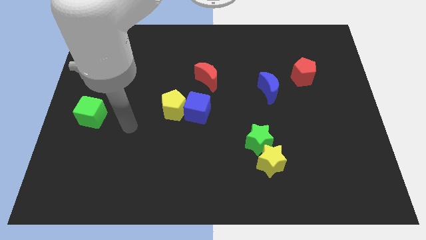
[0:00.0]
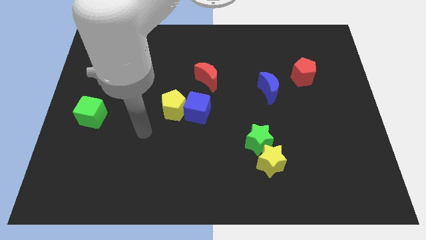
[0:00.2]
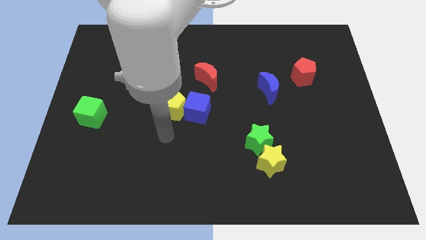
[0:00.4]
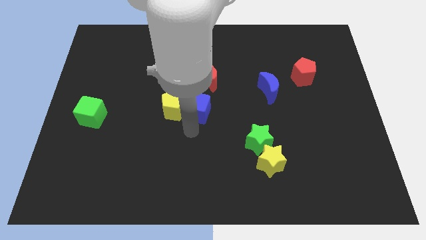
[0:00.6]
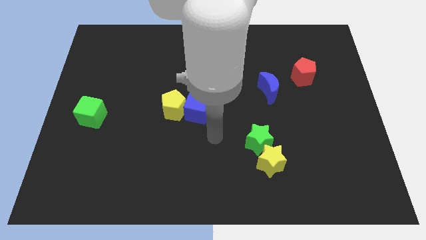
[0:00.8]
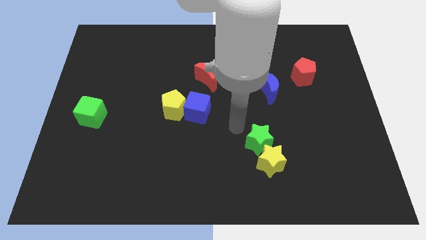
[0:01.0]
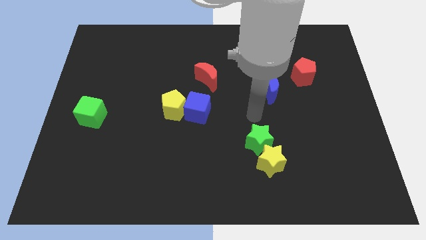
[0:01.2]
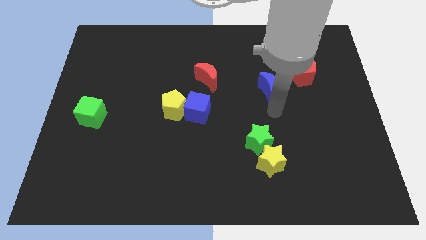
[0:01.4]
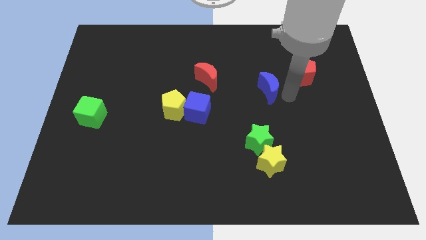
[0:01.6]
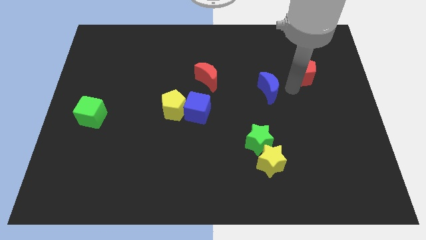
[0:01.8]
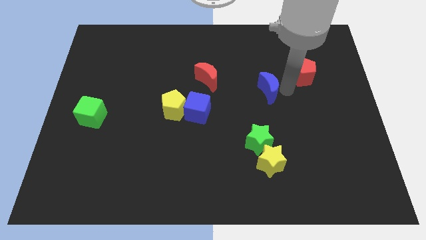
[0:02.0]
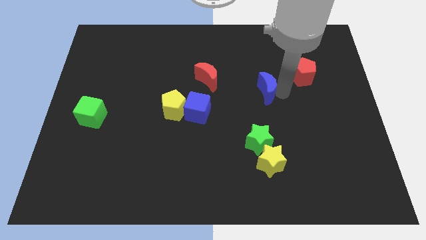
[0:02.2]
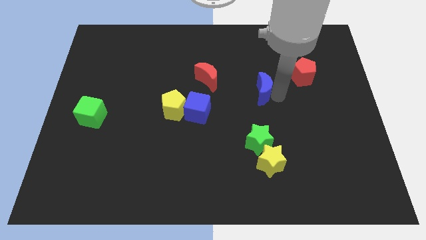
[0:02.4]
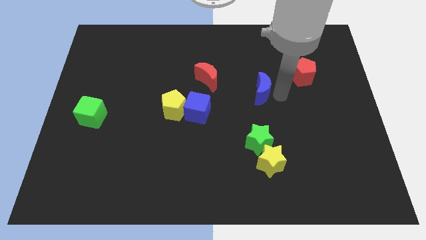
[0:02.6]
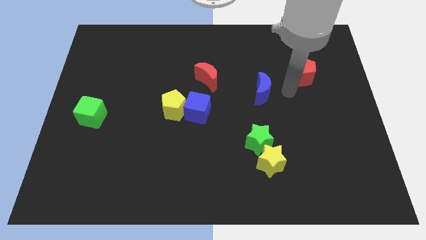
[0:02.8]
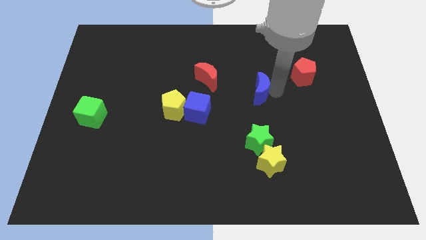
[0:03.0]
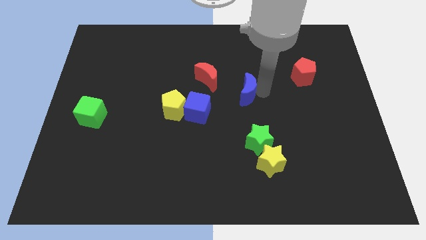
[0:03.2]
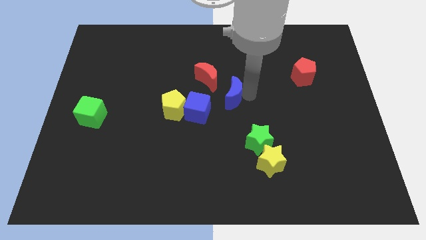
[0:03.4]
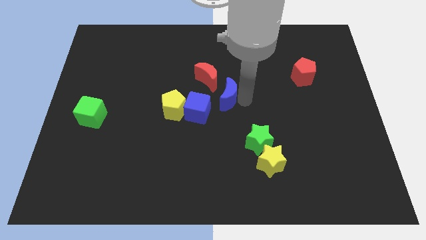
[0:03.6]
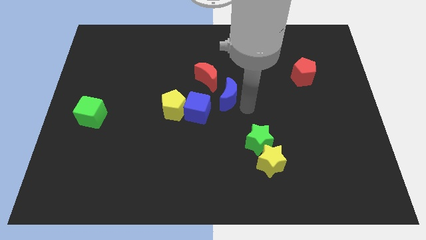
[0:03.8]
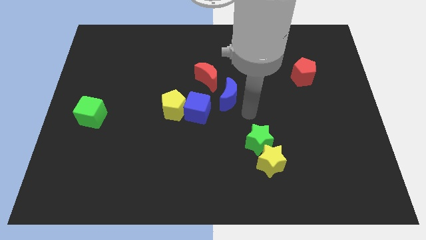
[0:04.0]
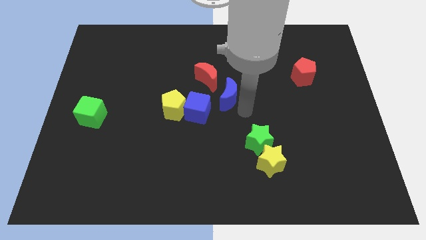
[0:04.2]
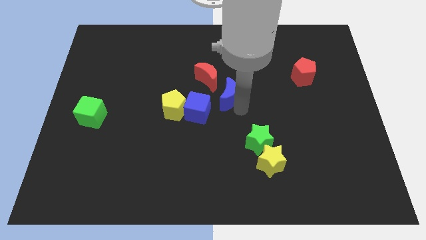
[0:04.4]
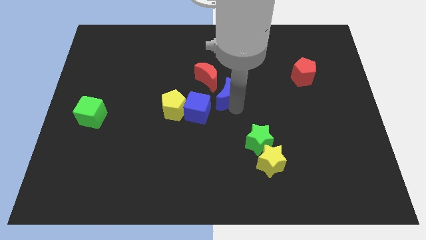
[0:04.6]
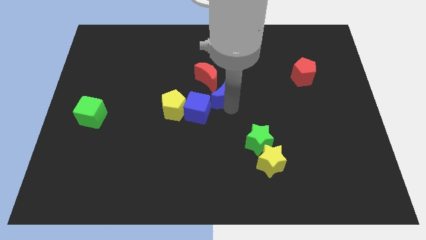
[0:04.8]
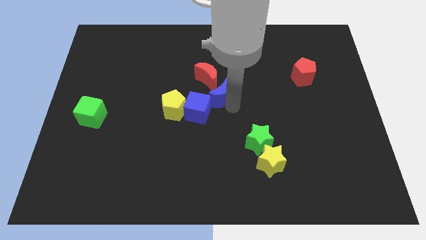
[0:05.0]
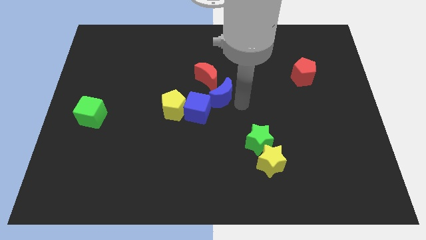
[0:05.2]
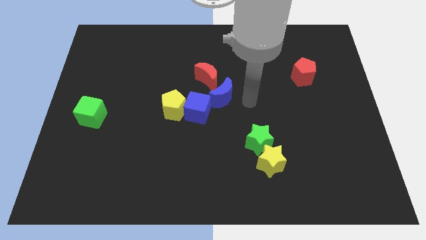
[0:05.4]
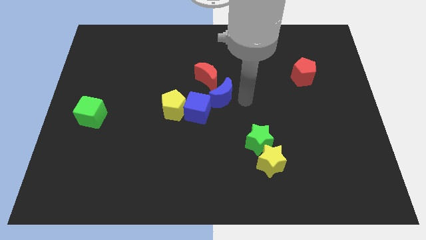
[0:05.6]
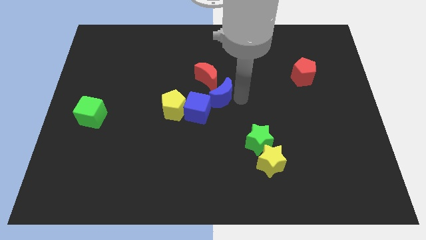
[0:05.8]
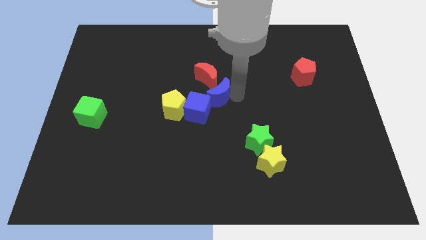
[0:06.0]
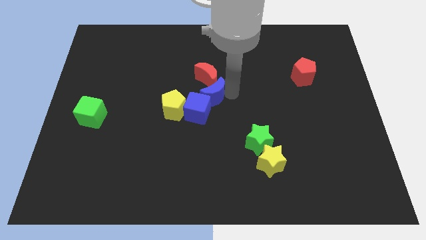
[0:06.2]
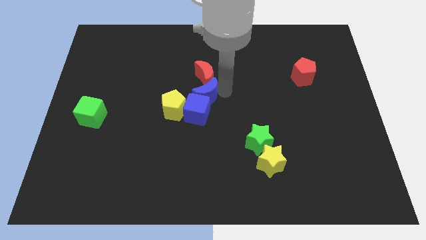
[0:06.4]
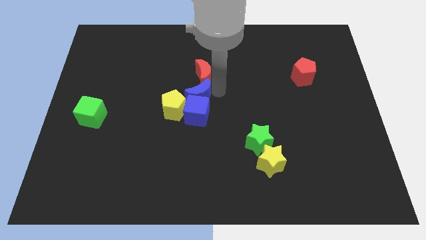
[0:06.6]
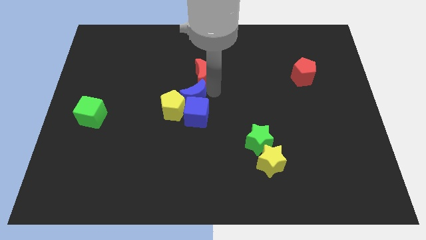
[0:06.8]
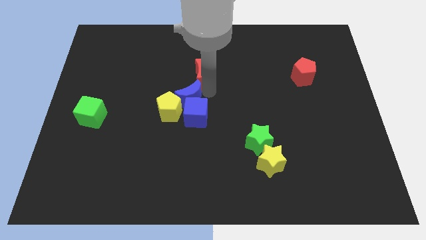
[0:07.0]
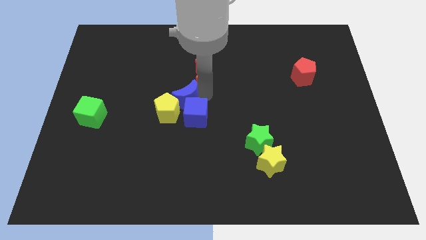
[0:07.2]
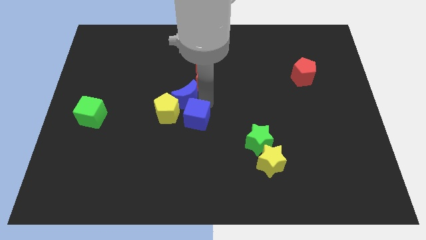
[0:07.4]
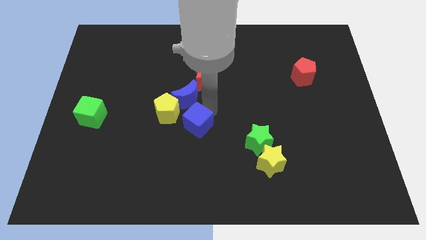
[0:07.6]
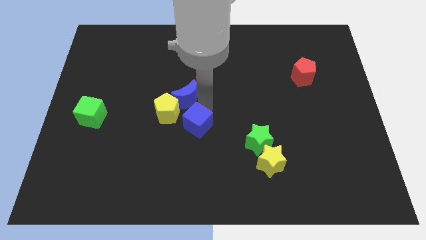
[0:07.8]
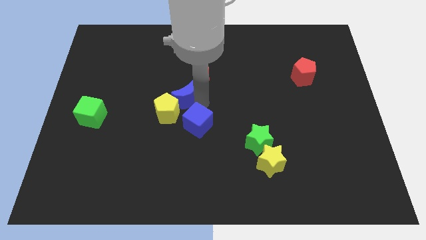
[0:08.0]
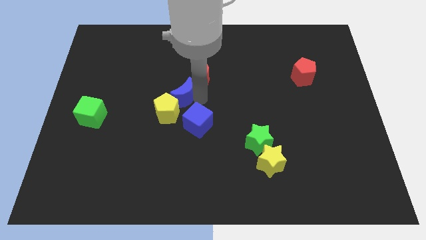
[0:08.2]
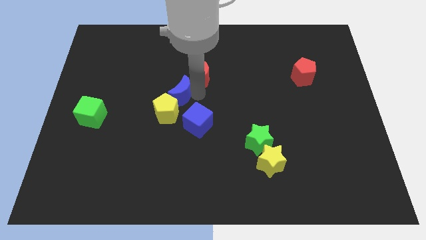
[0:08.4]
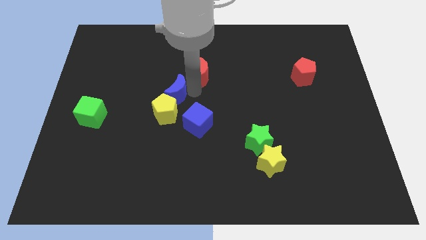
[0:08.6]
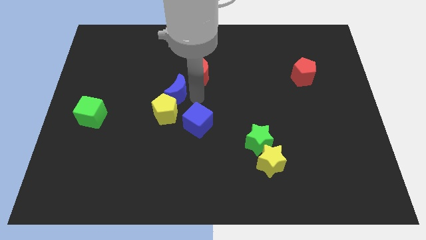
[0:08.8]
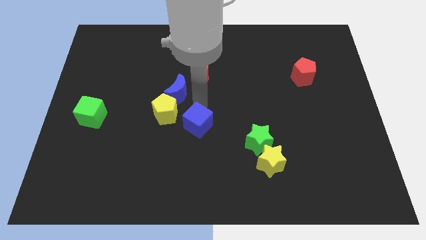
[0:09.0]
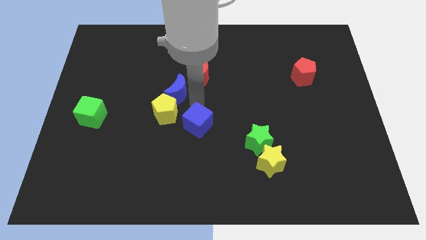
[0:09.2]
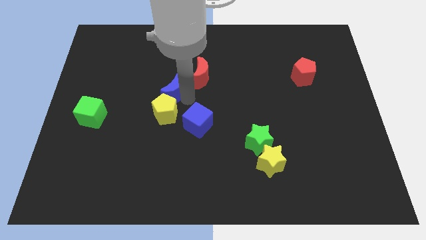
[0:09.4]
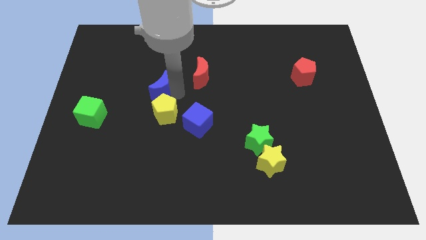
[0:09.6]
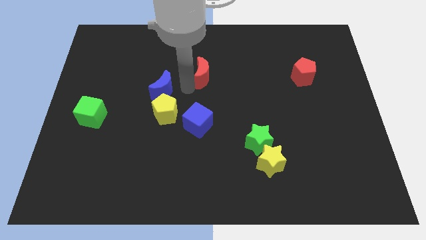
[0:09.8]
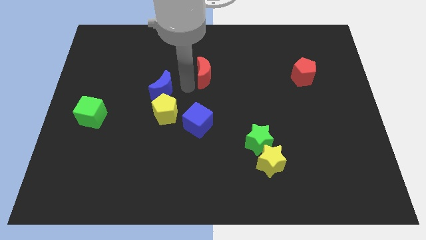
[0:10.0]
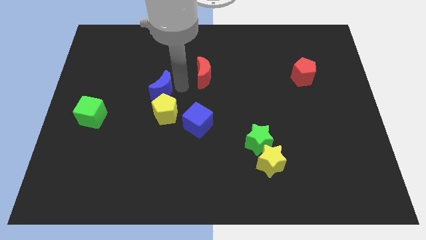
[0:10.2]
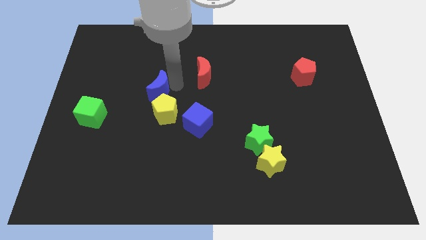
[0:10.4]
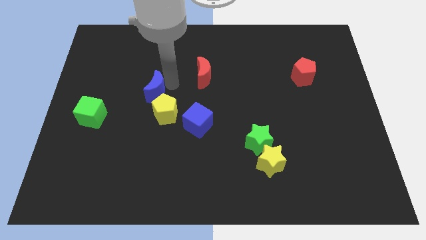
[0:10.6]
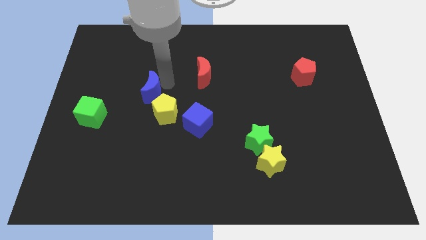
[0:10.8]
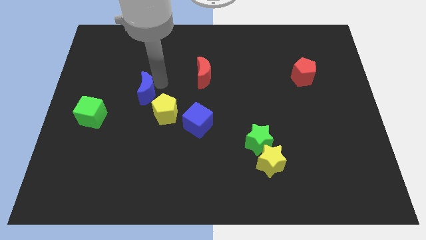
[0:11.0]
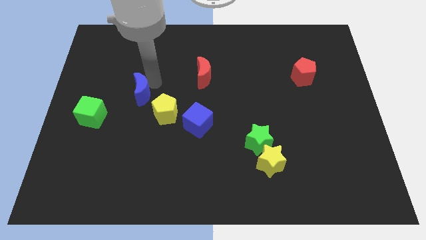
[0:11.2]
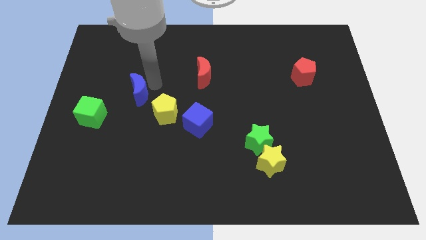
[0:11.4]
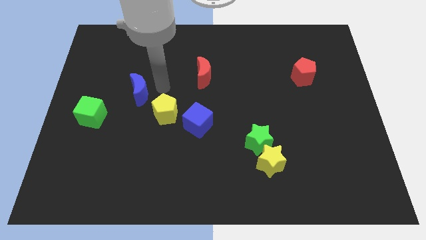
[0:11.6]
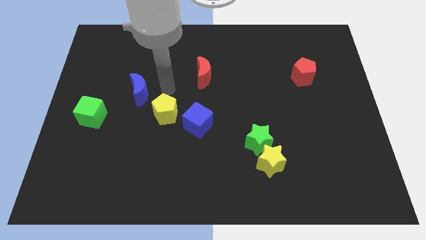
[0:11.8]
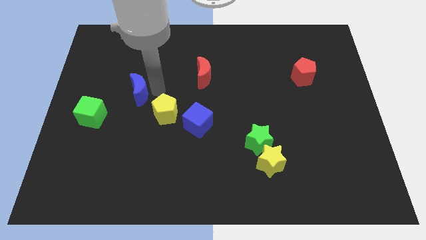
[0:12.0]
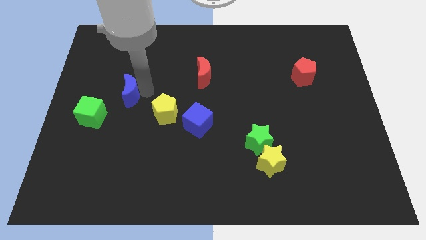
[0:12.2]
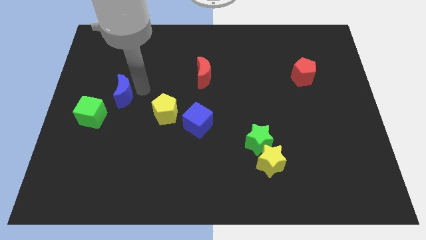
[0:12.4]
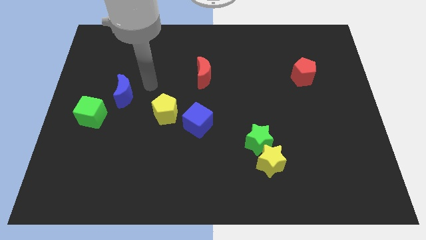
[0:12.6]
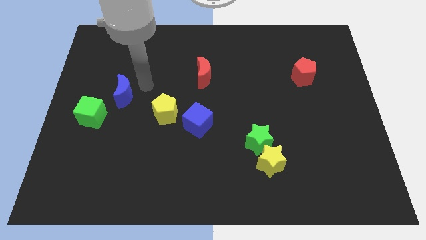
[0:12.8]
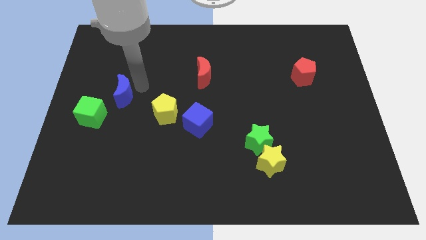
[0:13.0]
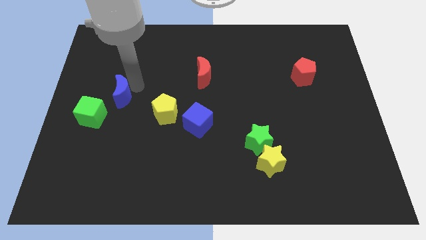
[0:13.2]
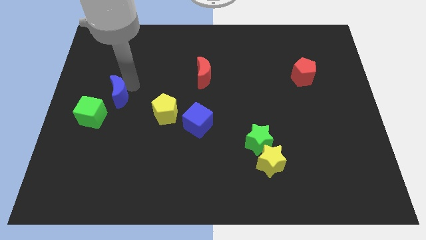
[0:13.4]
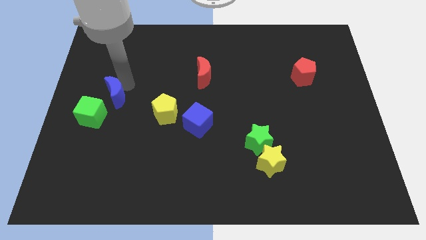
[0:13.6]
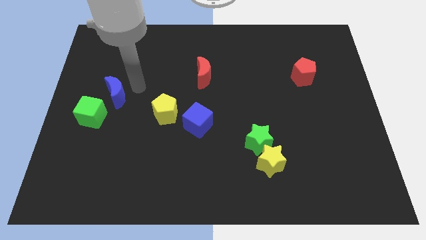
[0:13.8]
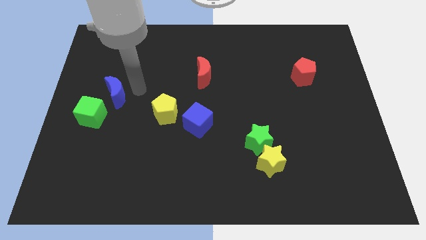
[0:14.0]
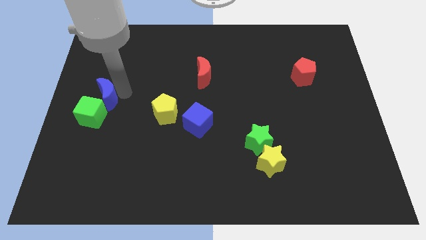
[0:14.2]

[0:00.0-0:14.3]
slide the blue moon to the left side of the board
